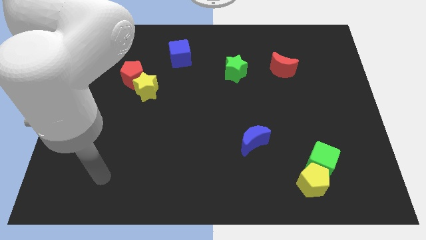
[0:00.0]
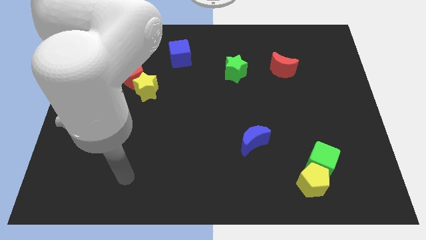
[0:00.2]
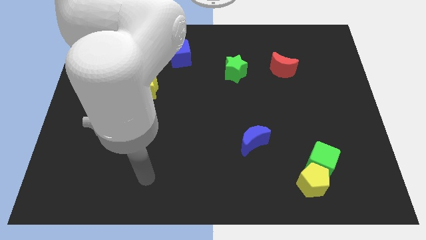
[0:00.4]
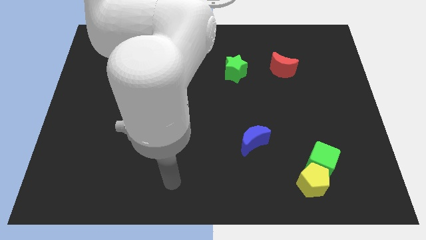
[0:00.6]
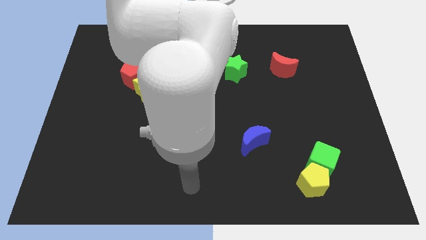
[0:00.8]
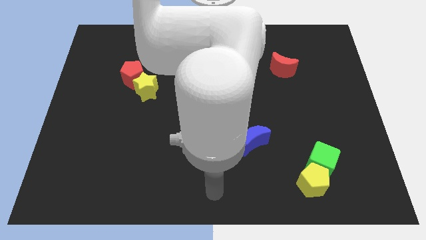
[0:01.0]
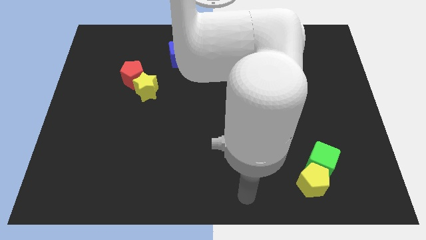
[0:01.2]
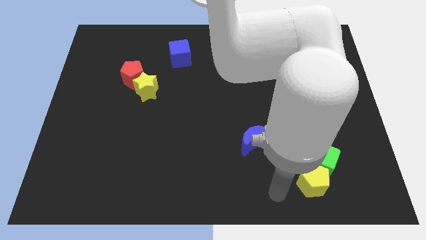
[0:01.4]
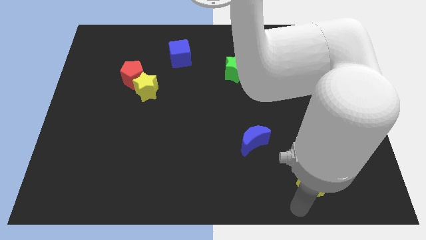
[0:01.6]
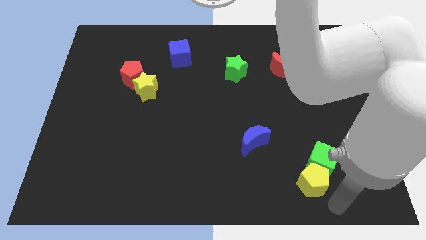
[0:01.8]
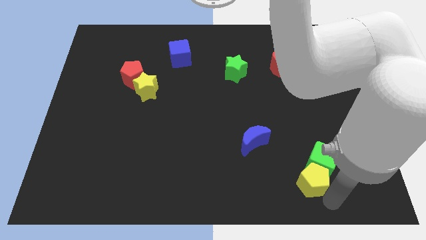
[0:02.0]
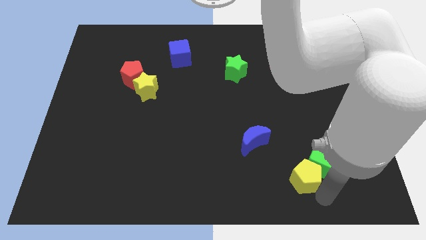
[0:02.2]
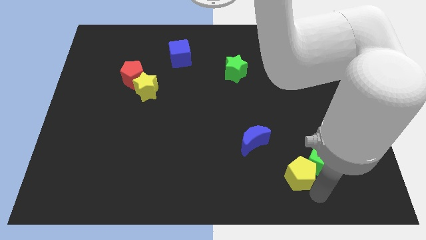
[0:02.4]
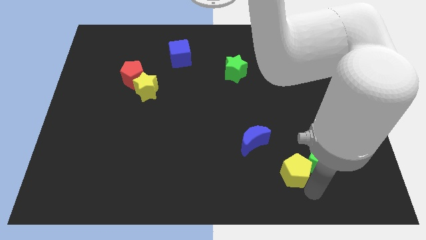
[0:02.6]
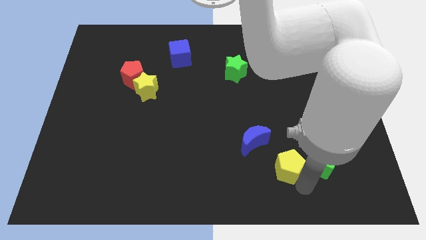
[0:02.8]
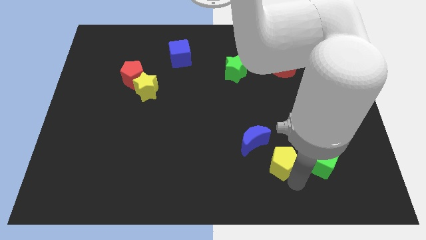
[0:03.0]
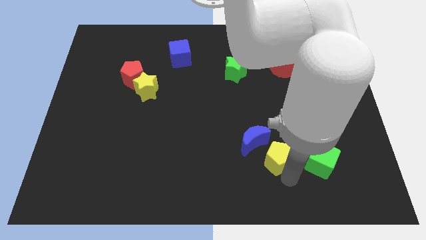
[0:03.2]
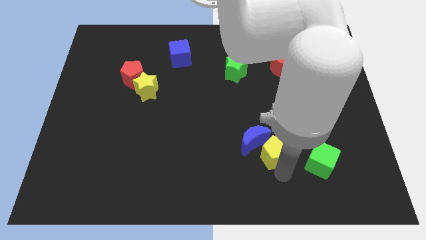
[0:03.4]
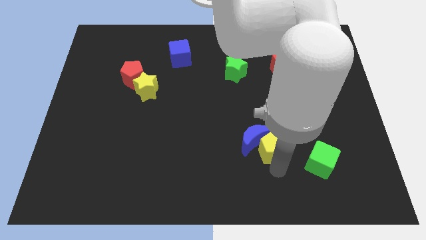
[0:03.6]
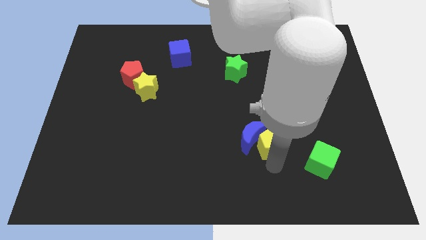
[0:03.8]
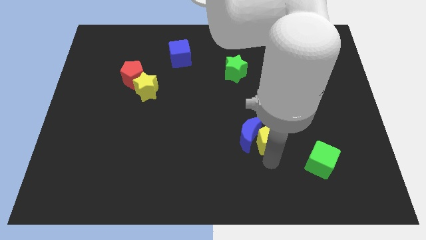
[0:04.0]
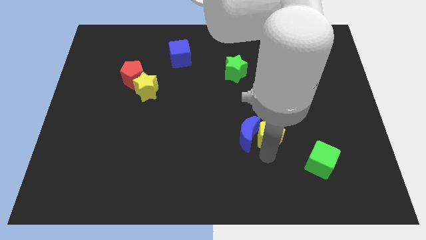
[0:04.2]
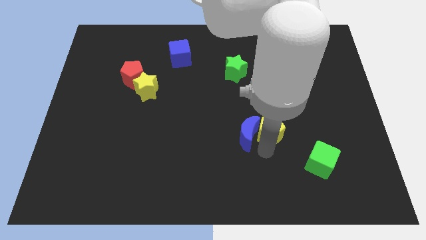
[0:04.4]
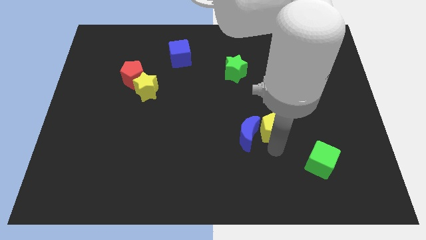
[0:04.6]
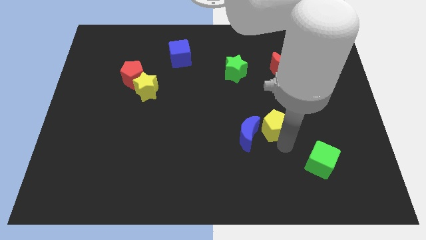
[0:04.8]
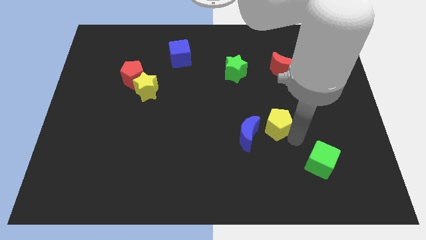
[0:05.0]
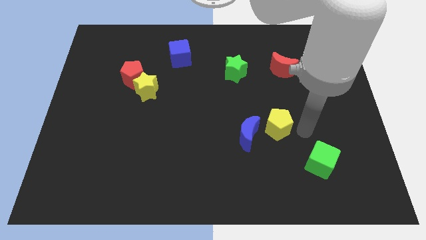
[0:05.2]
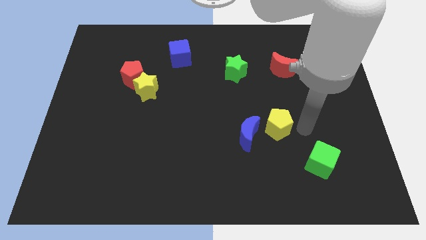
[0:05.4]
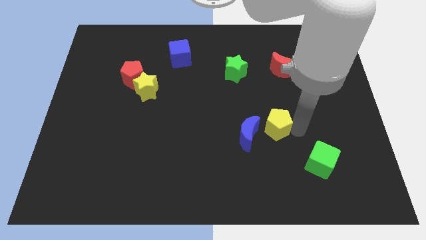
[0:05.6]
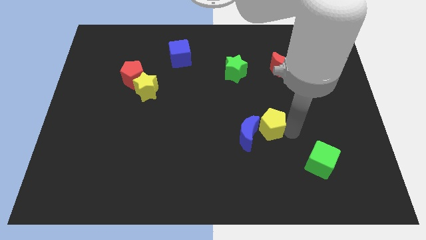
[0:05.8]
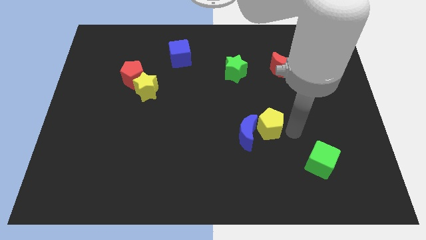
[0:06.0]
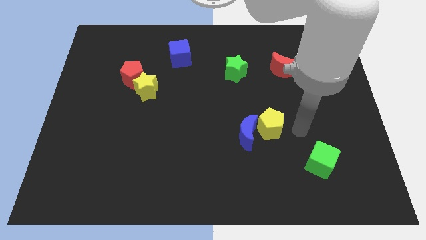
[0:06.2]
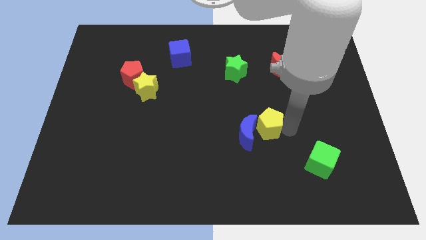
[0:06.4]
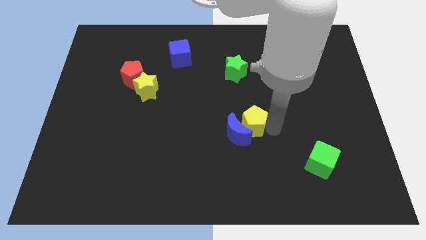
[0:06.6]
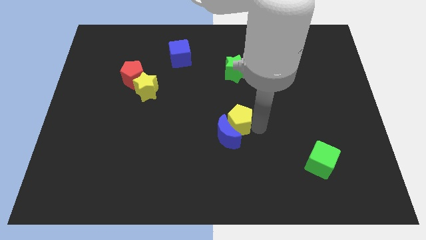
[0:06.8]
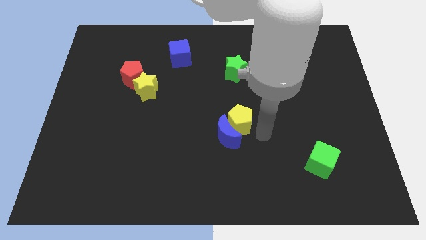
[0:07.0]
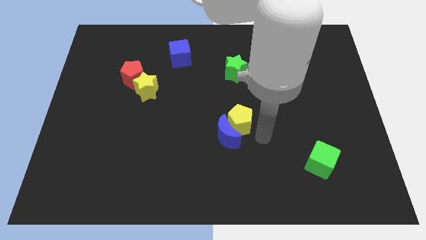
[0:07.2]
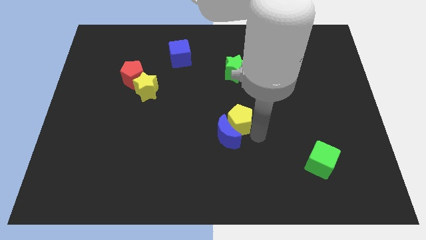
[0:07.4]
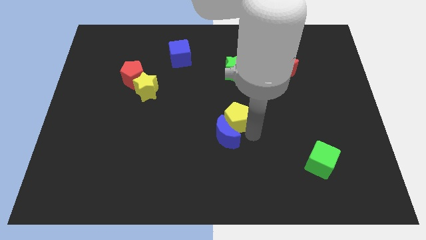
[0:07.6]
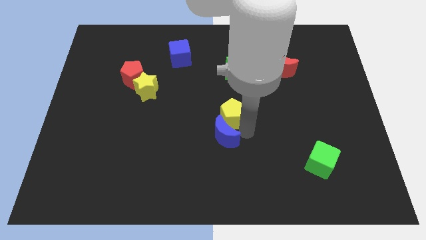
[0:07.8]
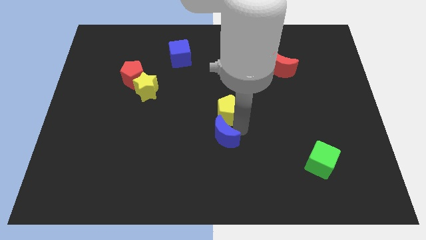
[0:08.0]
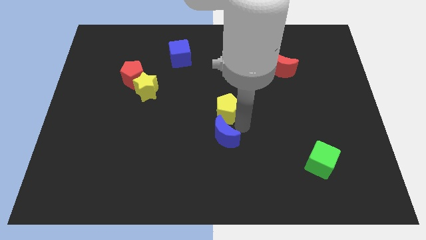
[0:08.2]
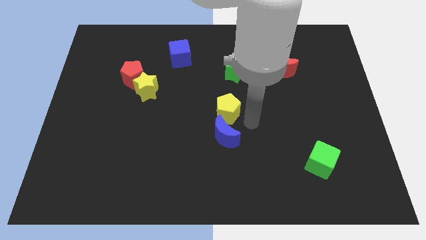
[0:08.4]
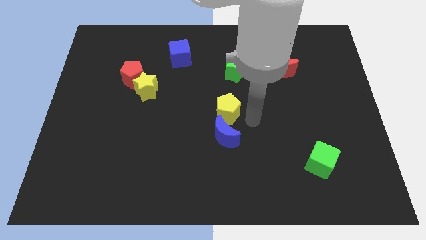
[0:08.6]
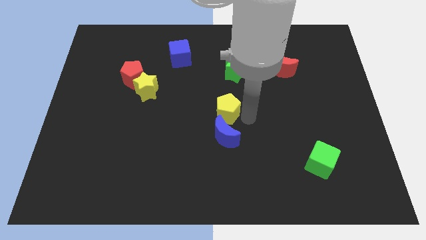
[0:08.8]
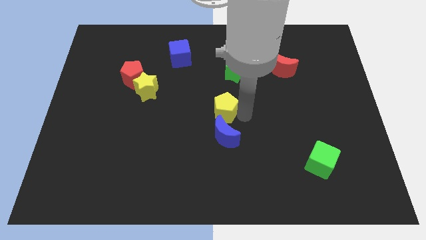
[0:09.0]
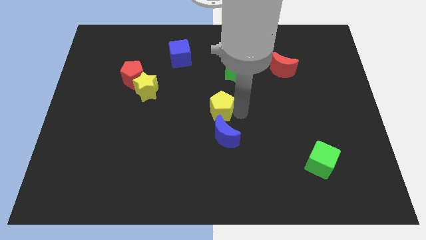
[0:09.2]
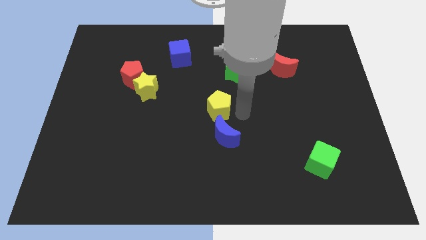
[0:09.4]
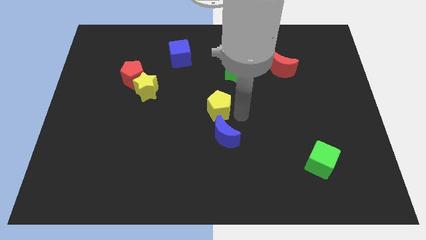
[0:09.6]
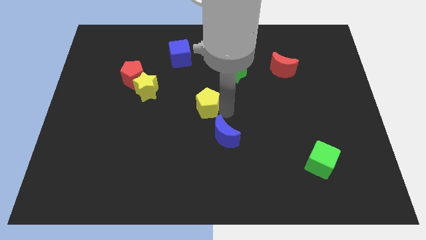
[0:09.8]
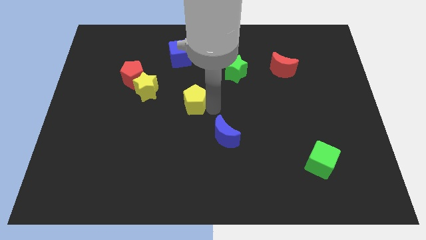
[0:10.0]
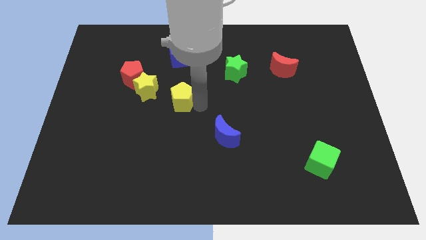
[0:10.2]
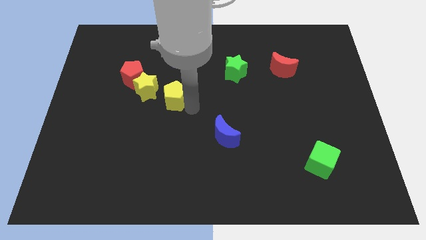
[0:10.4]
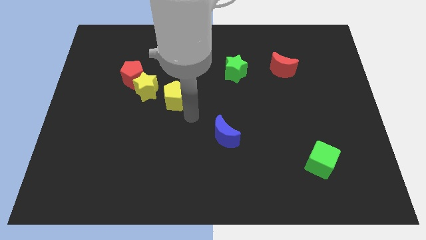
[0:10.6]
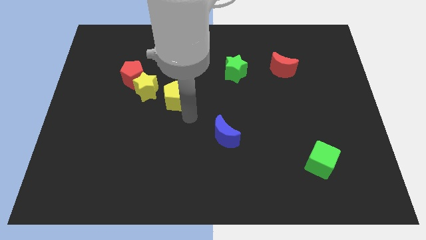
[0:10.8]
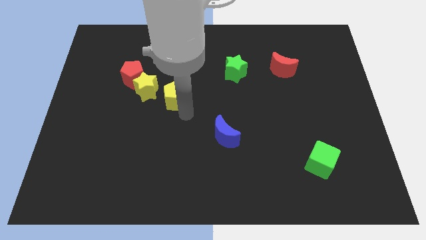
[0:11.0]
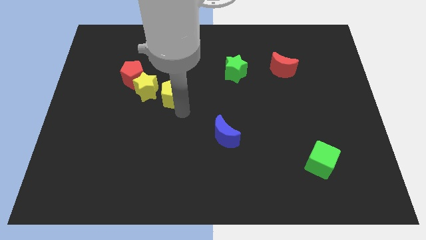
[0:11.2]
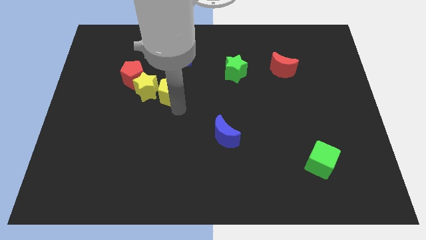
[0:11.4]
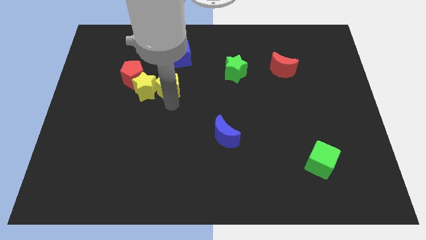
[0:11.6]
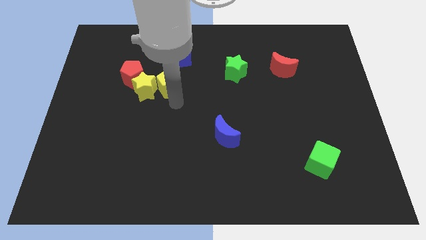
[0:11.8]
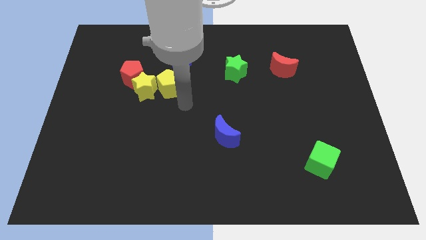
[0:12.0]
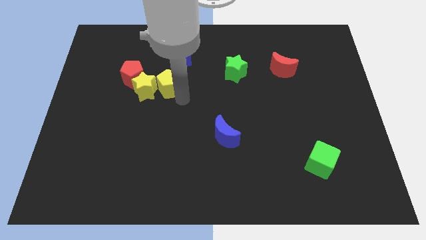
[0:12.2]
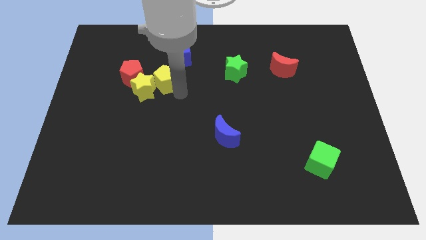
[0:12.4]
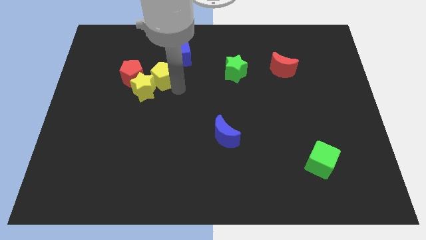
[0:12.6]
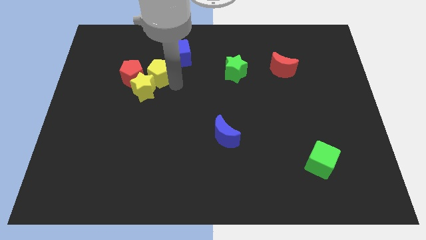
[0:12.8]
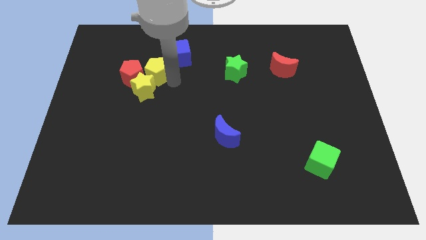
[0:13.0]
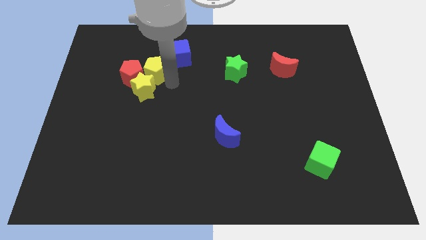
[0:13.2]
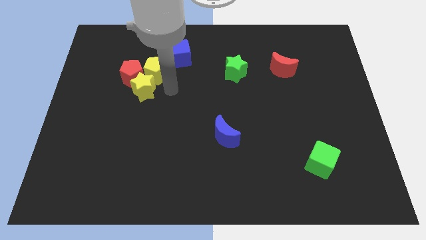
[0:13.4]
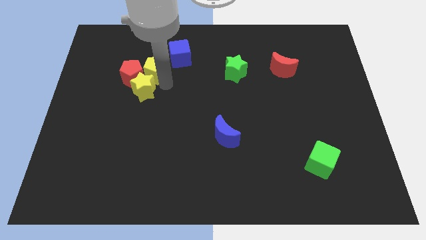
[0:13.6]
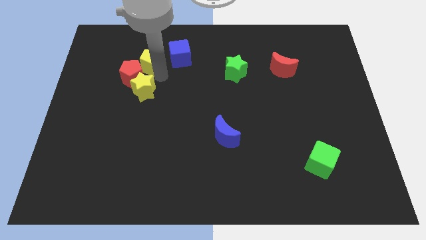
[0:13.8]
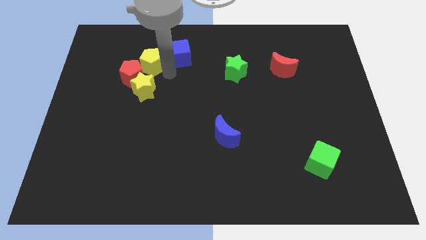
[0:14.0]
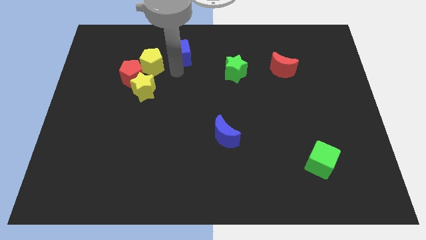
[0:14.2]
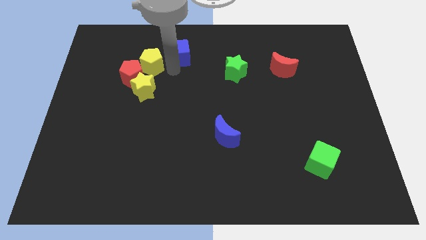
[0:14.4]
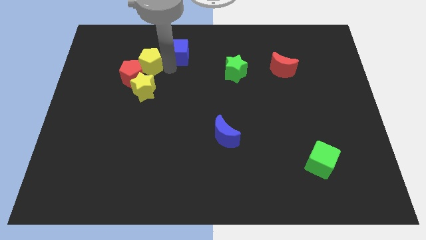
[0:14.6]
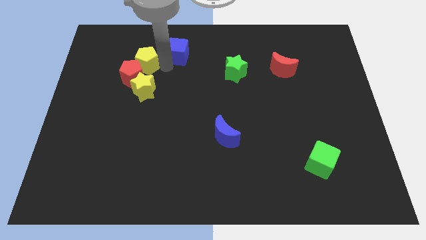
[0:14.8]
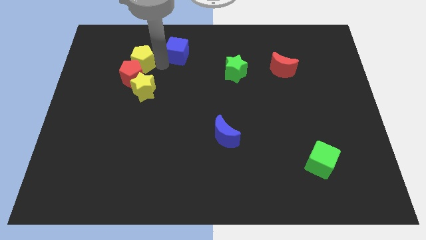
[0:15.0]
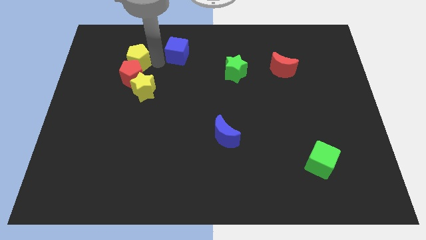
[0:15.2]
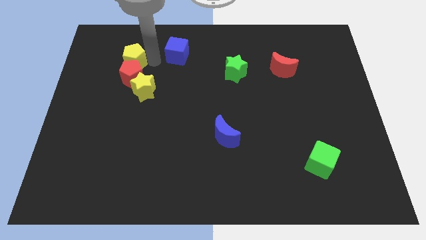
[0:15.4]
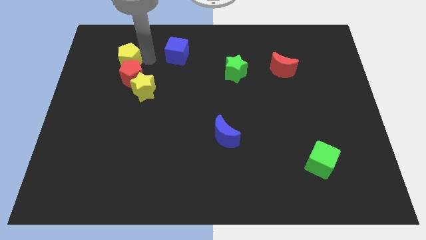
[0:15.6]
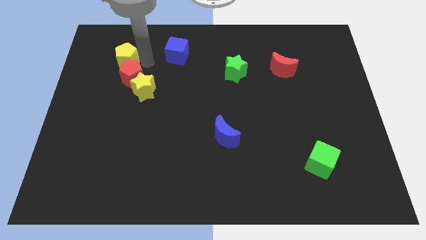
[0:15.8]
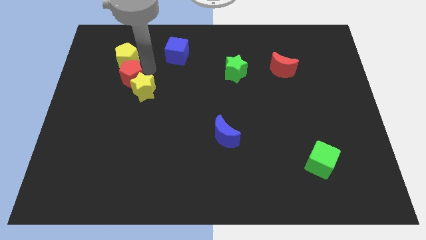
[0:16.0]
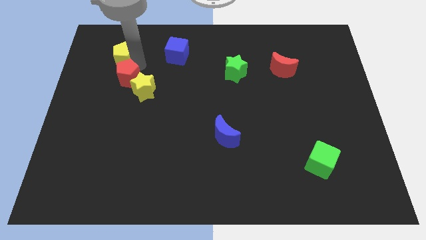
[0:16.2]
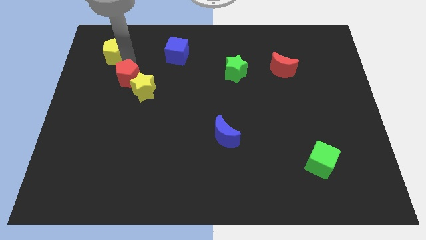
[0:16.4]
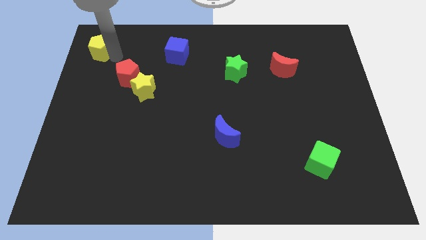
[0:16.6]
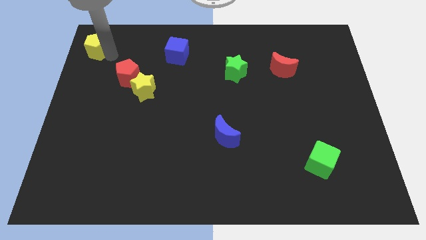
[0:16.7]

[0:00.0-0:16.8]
push the yellow pentagon to the top left of the board
